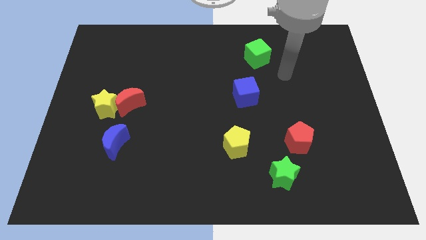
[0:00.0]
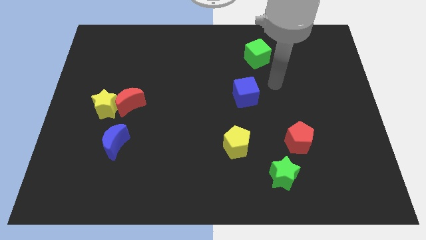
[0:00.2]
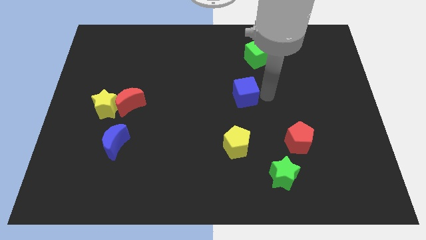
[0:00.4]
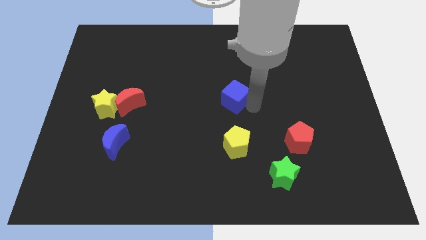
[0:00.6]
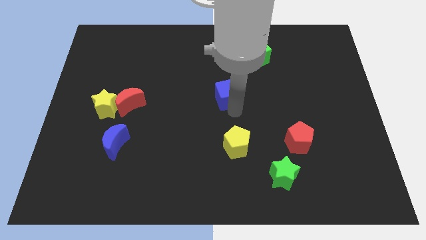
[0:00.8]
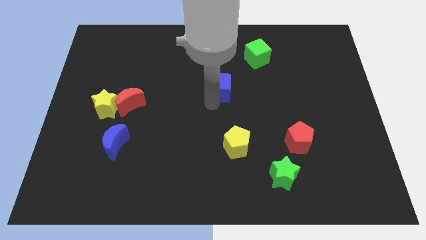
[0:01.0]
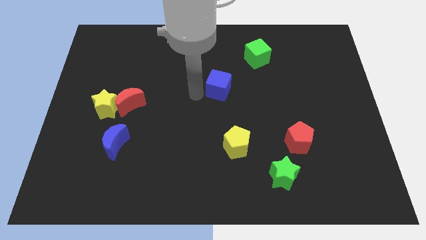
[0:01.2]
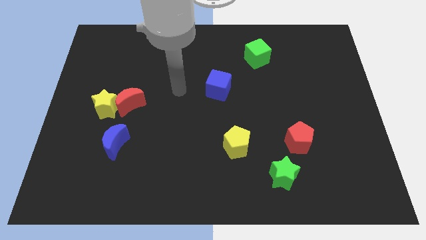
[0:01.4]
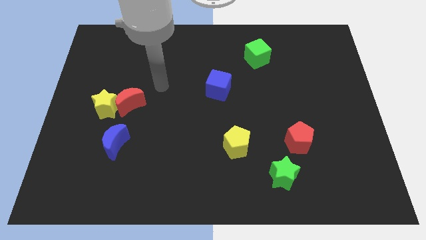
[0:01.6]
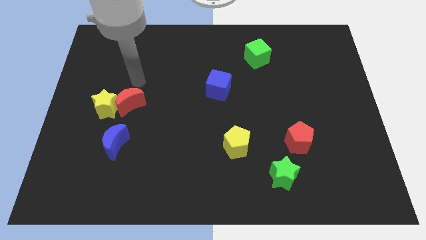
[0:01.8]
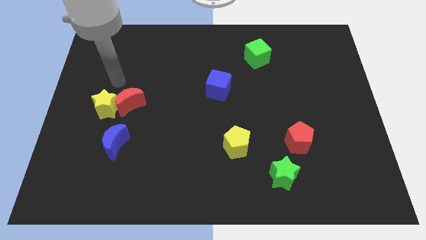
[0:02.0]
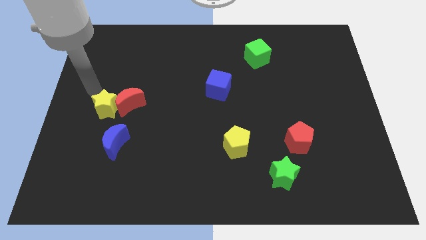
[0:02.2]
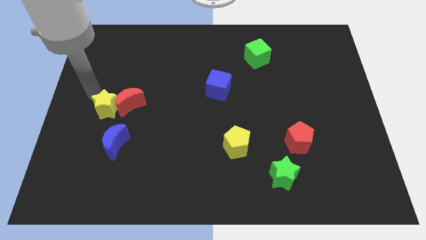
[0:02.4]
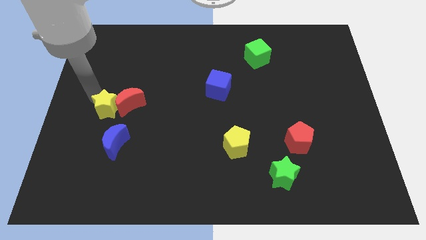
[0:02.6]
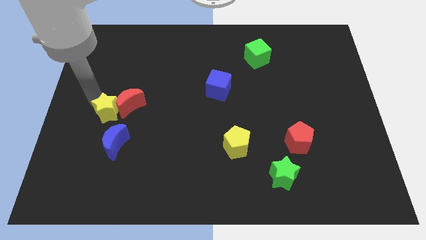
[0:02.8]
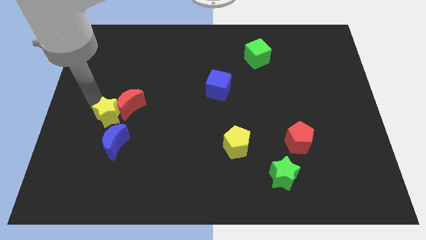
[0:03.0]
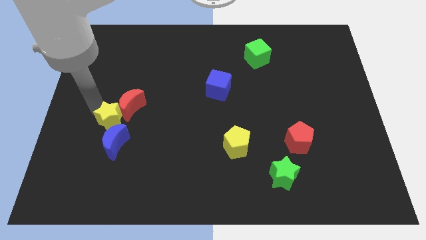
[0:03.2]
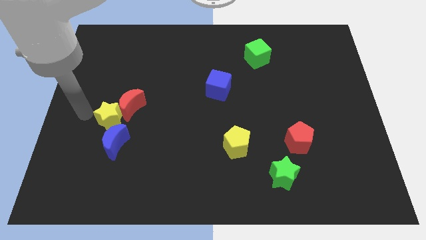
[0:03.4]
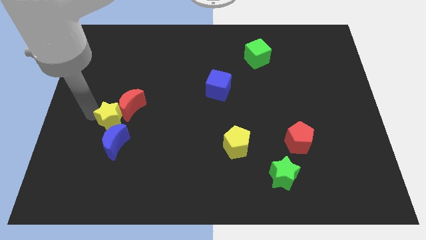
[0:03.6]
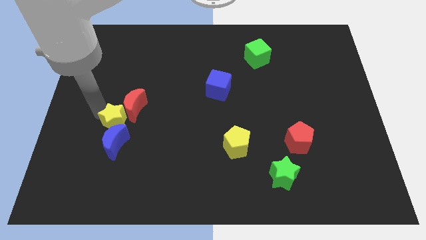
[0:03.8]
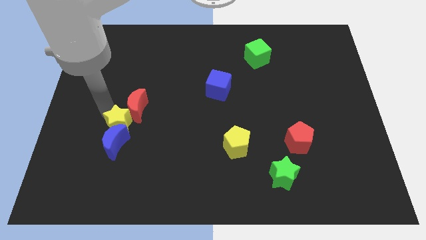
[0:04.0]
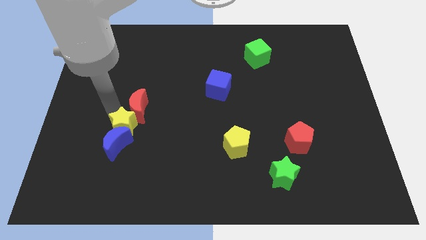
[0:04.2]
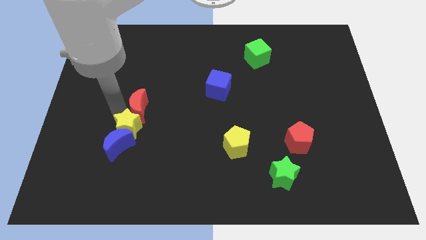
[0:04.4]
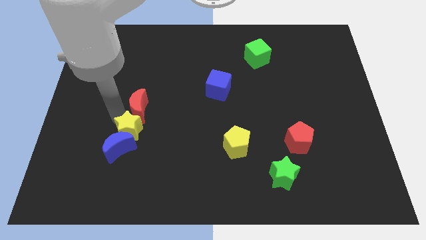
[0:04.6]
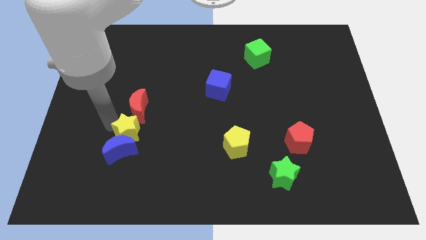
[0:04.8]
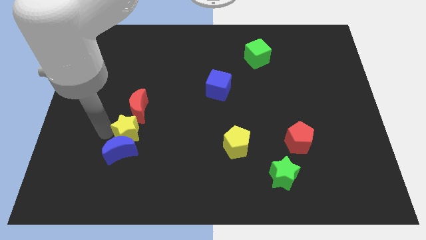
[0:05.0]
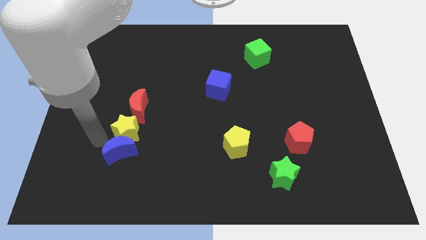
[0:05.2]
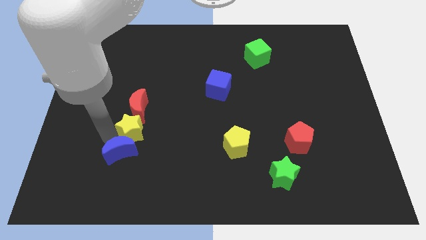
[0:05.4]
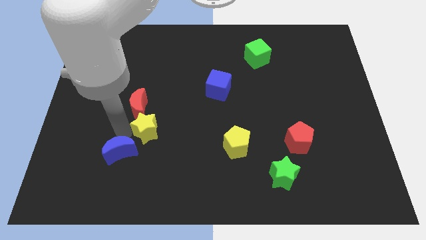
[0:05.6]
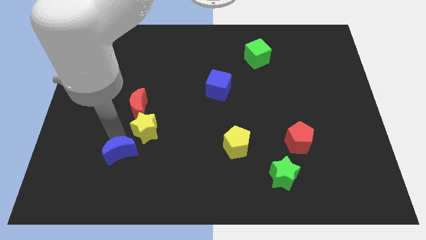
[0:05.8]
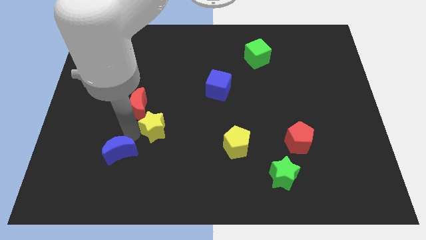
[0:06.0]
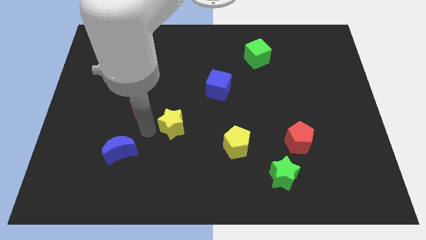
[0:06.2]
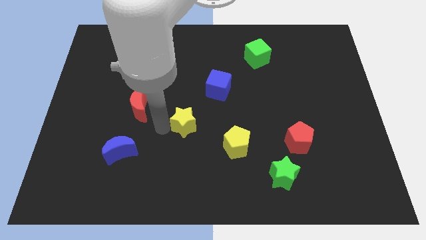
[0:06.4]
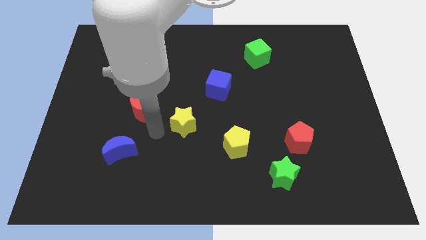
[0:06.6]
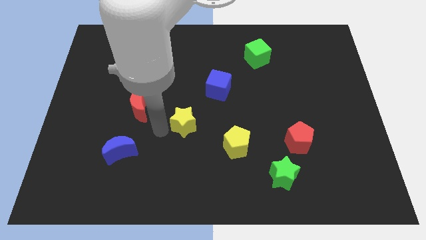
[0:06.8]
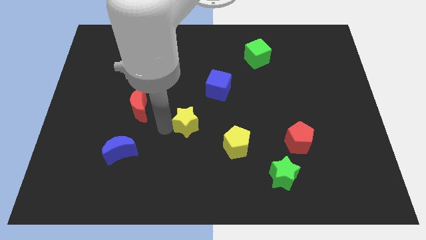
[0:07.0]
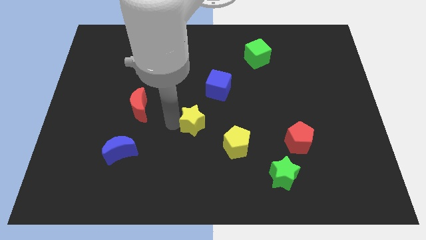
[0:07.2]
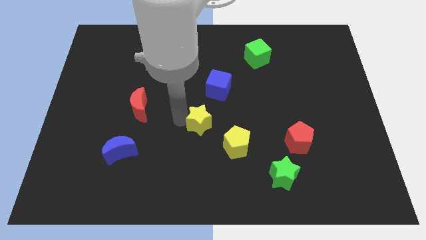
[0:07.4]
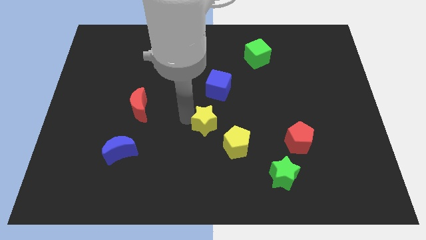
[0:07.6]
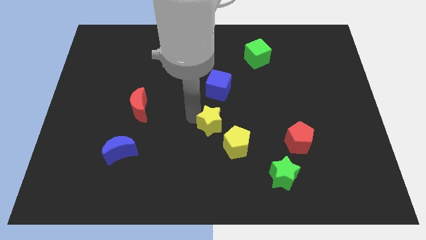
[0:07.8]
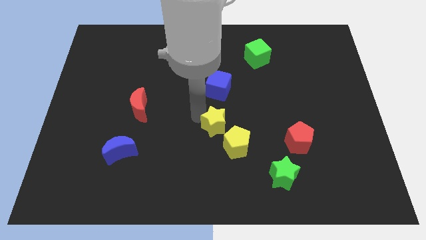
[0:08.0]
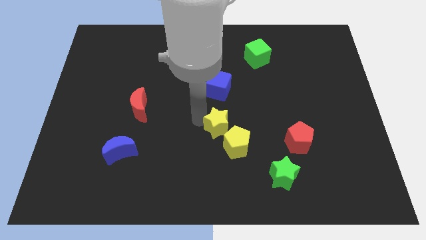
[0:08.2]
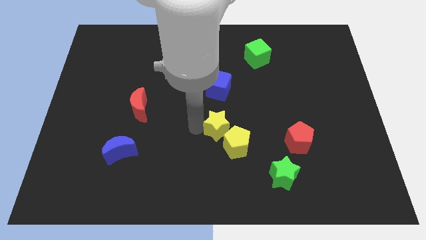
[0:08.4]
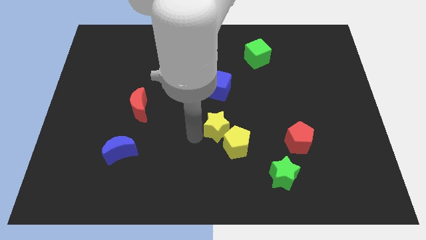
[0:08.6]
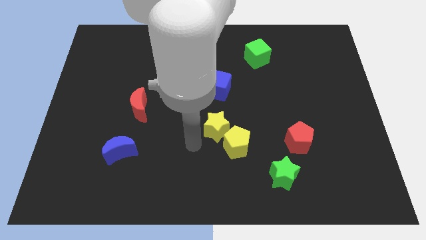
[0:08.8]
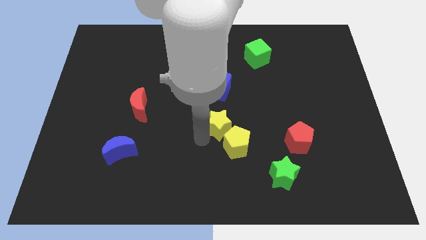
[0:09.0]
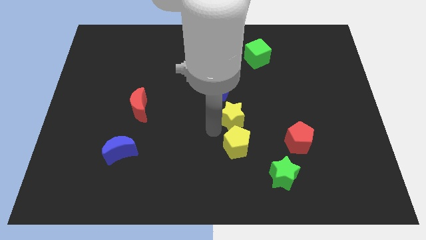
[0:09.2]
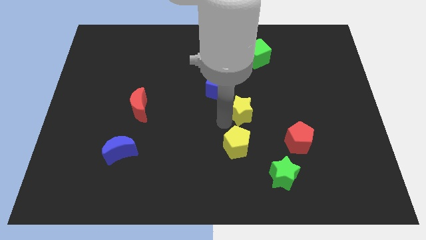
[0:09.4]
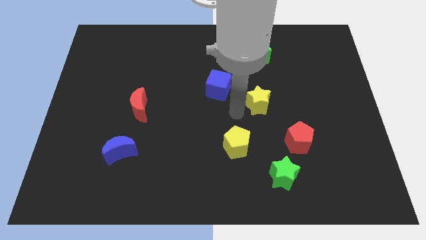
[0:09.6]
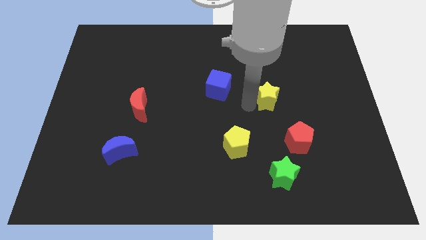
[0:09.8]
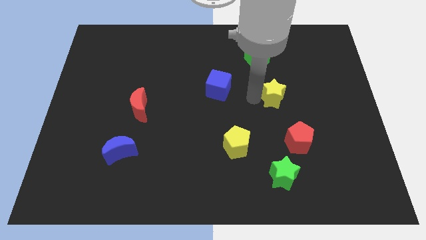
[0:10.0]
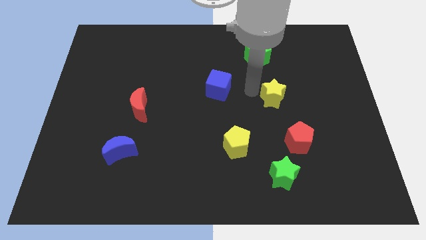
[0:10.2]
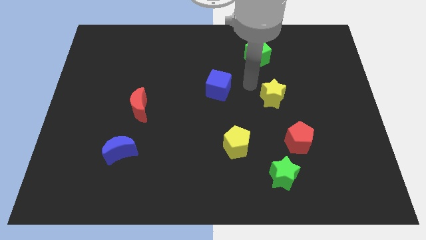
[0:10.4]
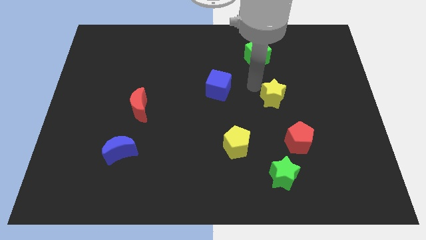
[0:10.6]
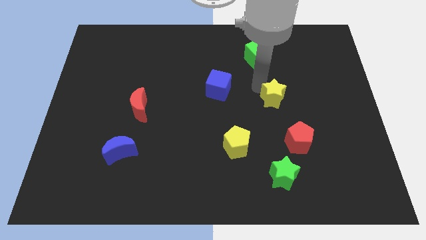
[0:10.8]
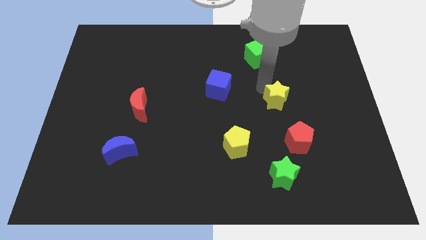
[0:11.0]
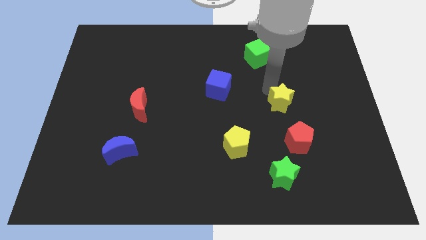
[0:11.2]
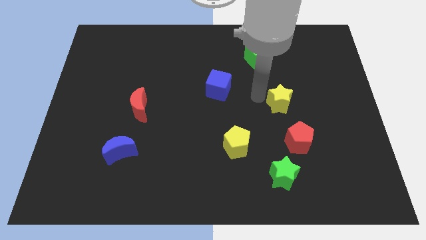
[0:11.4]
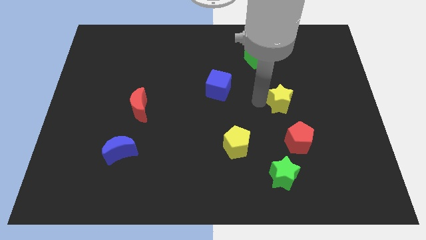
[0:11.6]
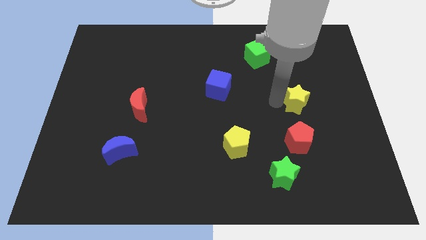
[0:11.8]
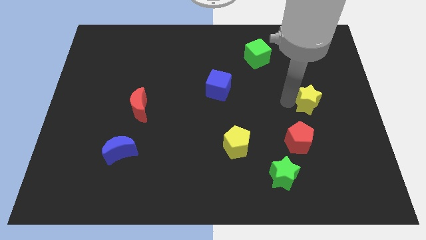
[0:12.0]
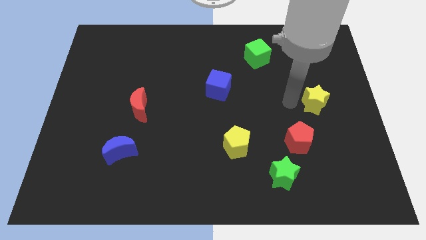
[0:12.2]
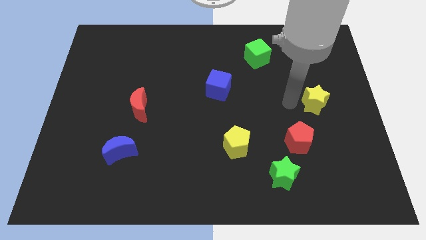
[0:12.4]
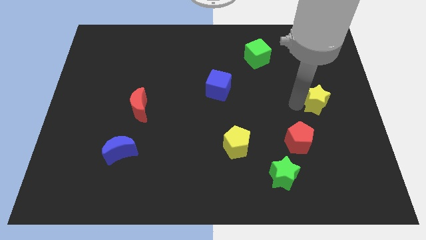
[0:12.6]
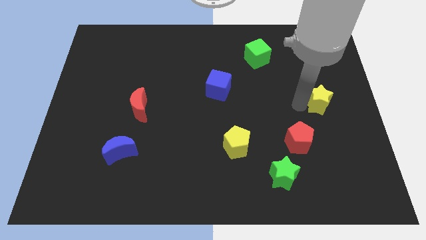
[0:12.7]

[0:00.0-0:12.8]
move the yellow star to the right side of the board

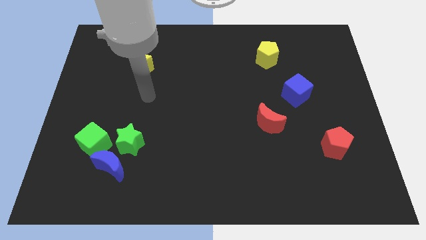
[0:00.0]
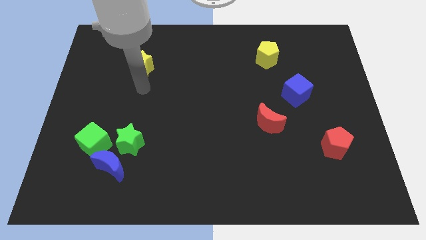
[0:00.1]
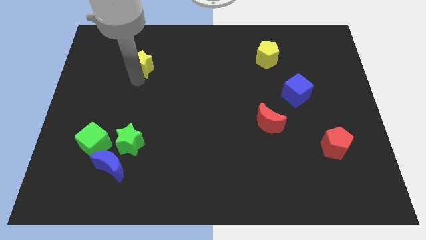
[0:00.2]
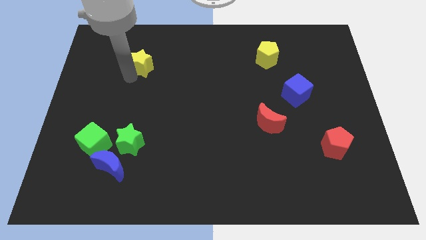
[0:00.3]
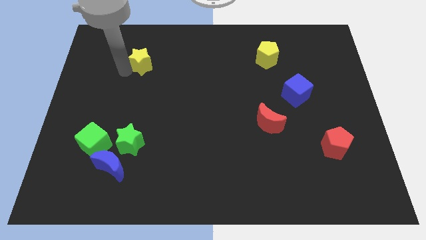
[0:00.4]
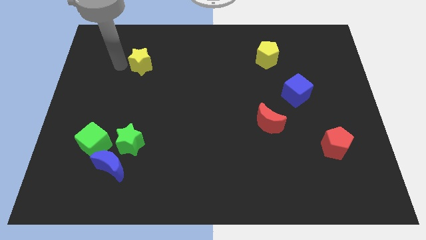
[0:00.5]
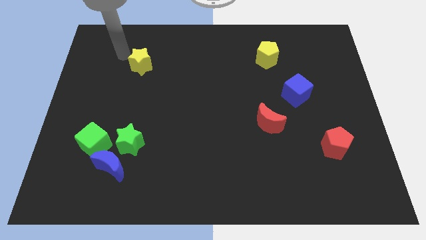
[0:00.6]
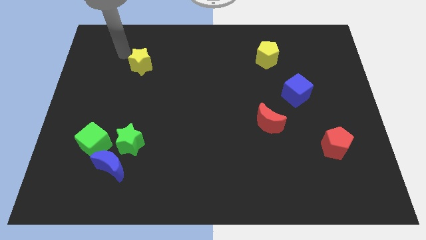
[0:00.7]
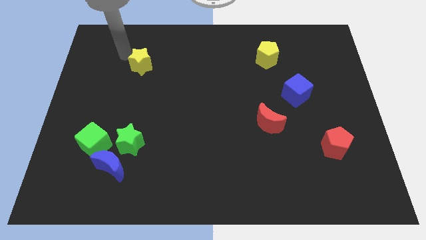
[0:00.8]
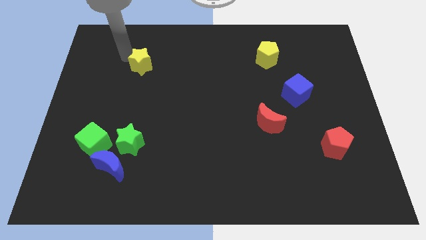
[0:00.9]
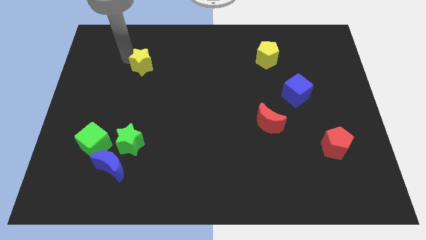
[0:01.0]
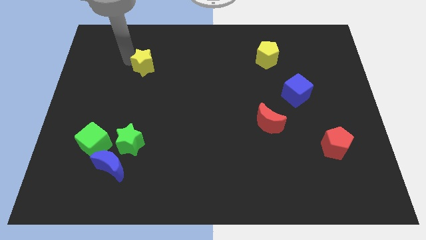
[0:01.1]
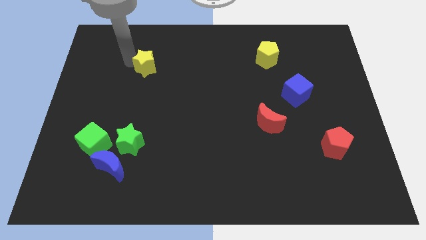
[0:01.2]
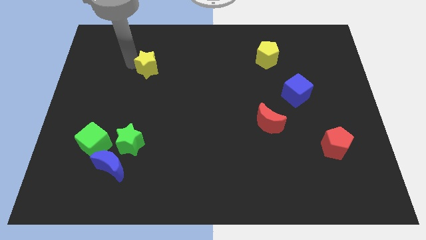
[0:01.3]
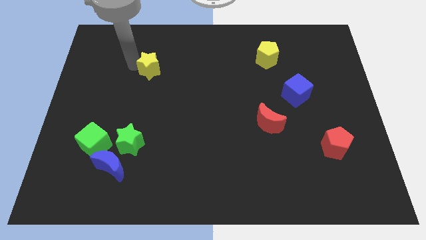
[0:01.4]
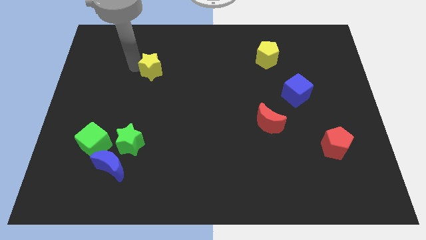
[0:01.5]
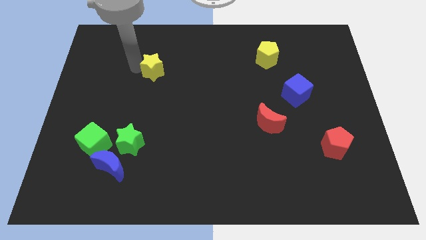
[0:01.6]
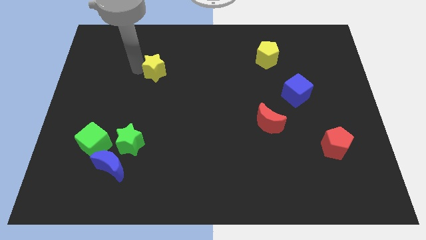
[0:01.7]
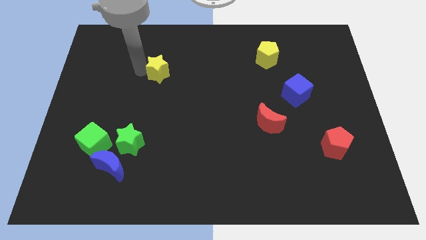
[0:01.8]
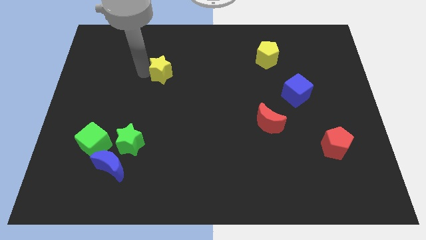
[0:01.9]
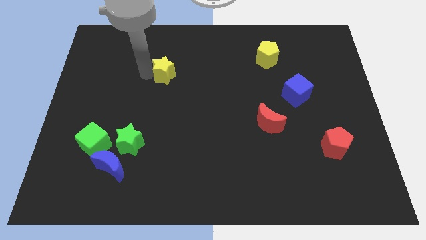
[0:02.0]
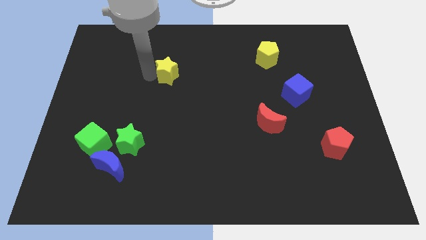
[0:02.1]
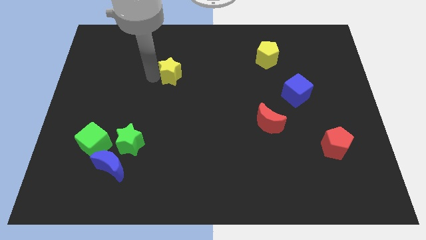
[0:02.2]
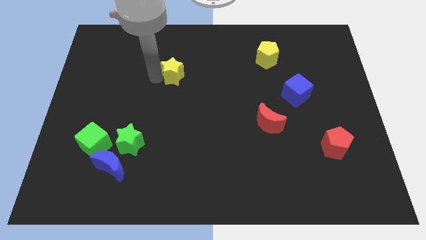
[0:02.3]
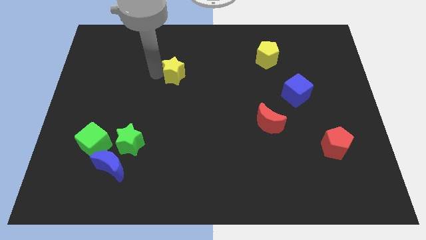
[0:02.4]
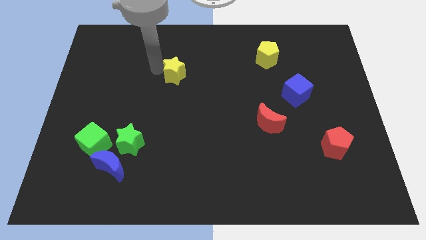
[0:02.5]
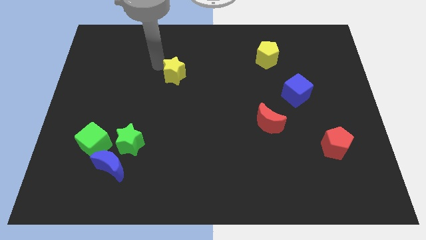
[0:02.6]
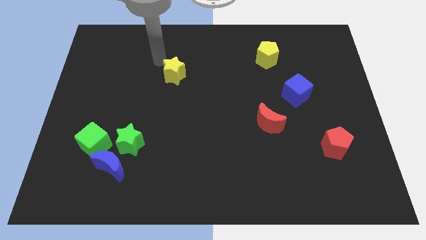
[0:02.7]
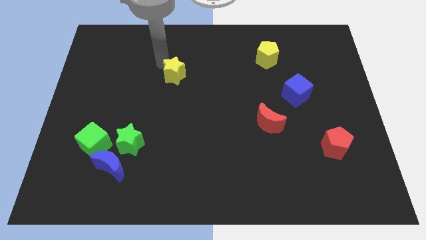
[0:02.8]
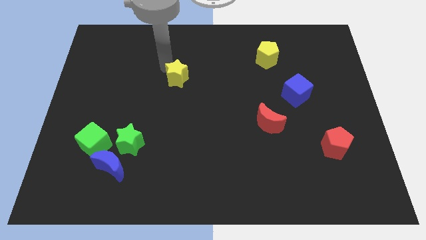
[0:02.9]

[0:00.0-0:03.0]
push the yellow star to the center of the board
